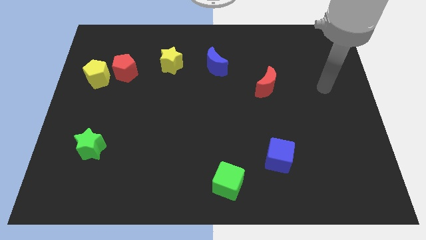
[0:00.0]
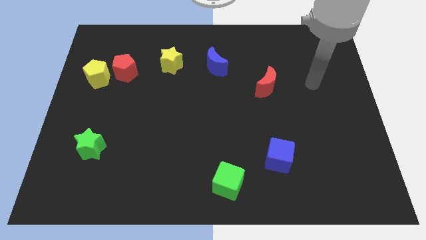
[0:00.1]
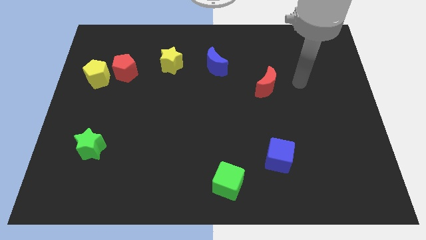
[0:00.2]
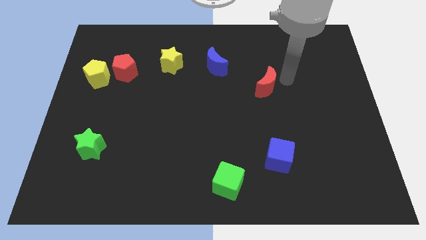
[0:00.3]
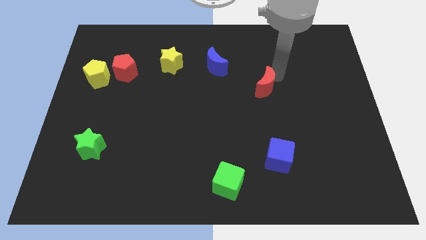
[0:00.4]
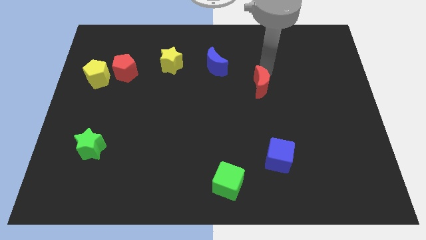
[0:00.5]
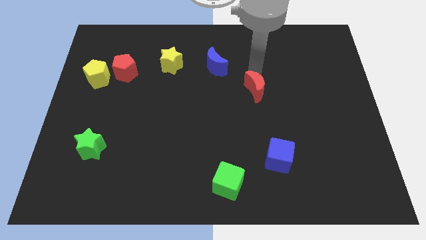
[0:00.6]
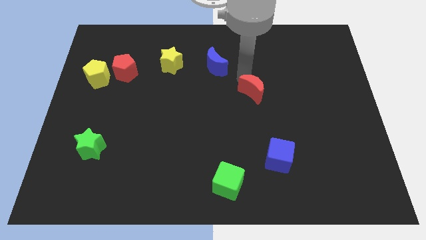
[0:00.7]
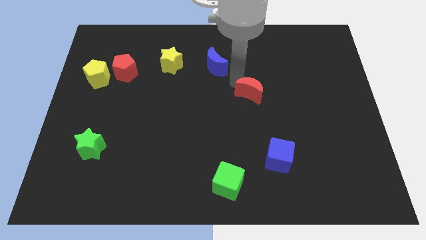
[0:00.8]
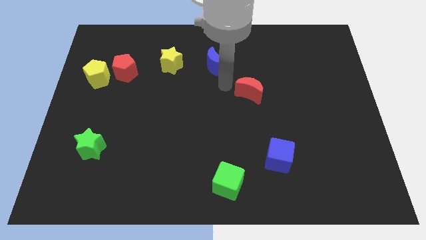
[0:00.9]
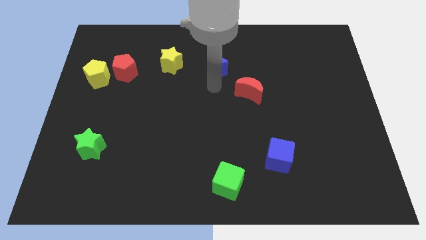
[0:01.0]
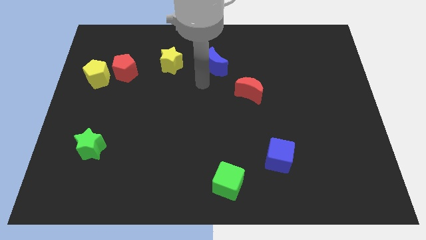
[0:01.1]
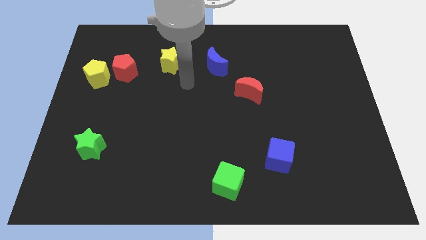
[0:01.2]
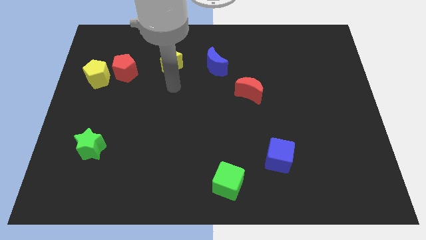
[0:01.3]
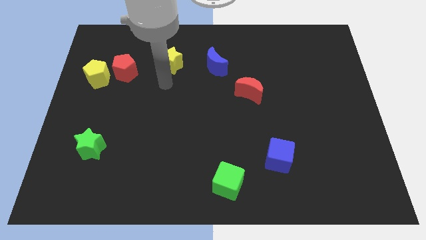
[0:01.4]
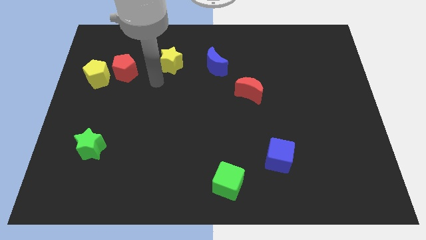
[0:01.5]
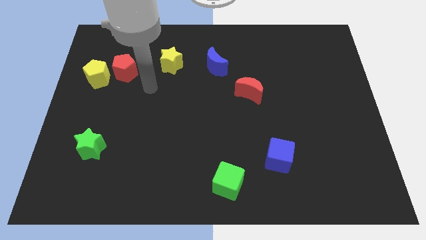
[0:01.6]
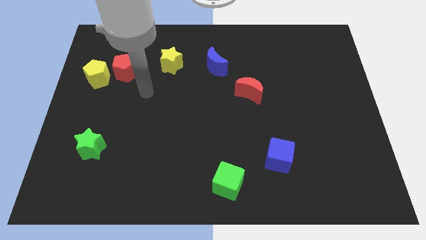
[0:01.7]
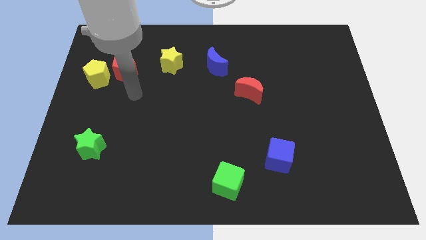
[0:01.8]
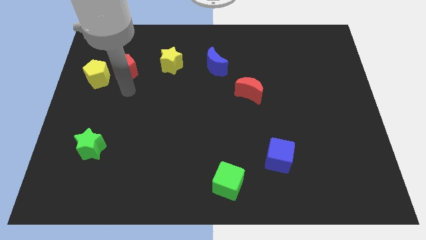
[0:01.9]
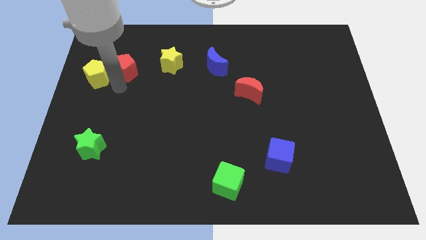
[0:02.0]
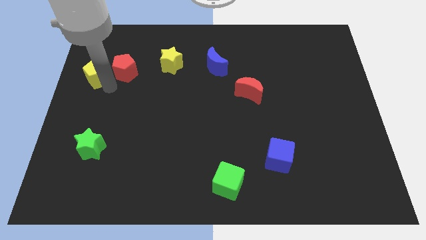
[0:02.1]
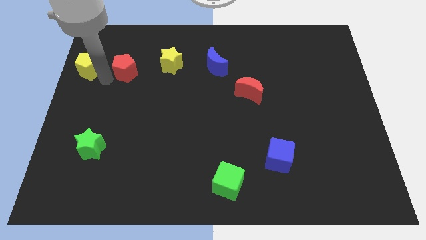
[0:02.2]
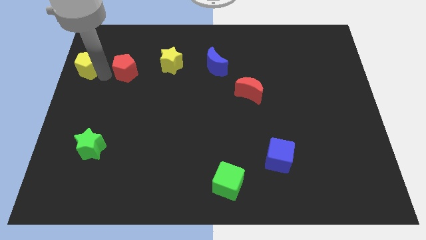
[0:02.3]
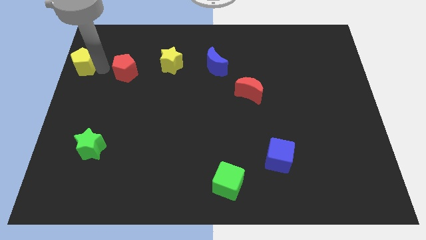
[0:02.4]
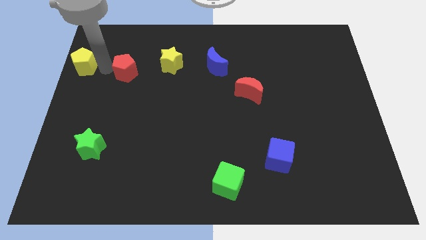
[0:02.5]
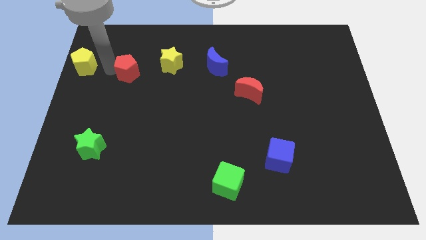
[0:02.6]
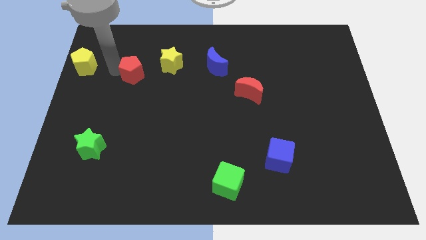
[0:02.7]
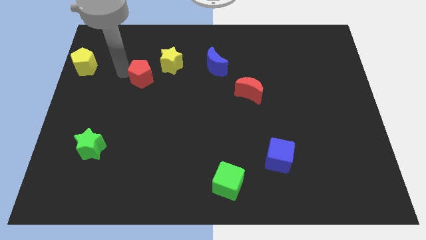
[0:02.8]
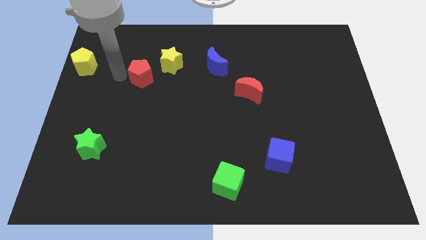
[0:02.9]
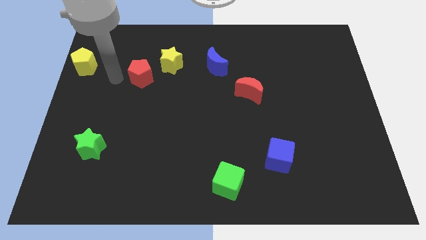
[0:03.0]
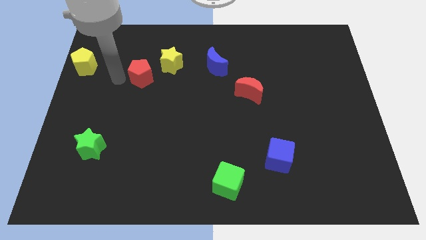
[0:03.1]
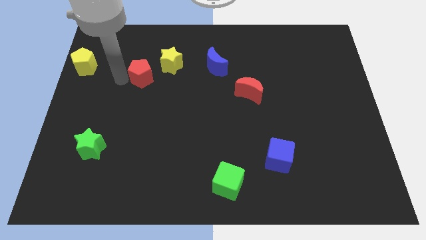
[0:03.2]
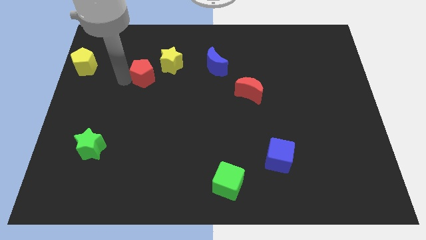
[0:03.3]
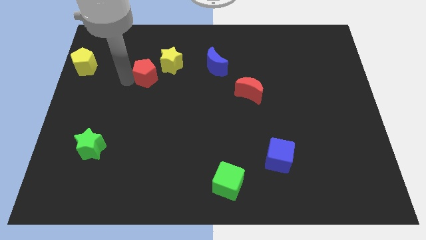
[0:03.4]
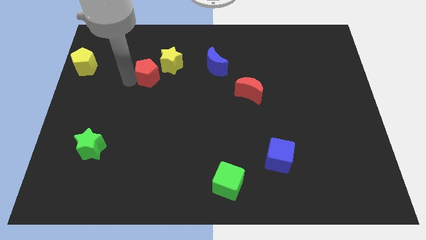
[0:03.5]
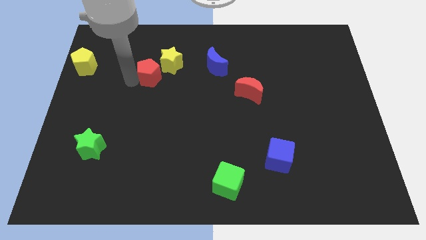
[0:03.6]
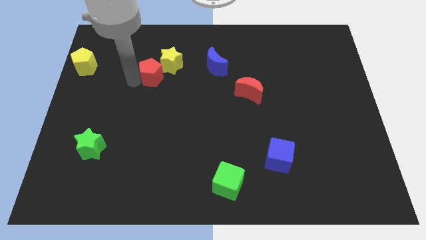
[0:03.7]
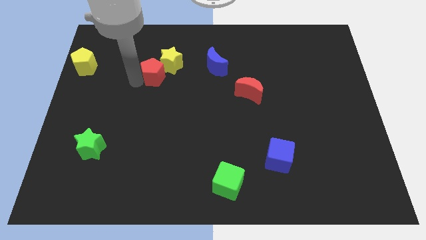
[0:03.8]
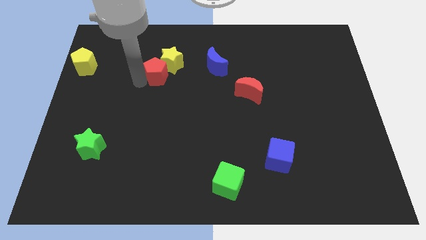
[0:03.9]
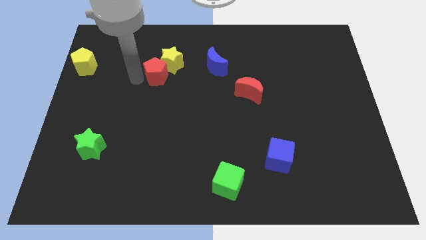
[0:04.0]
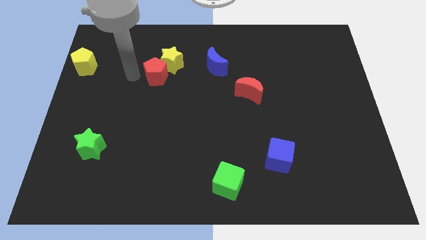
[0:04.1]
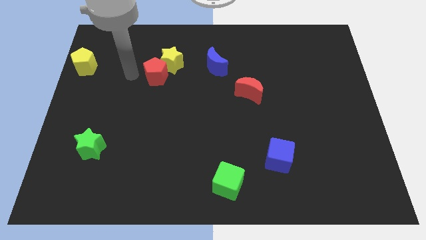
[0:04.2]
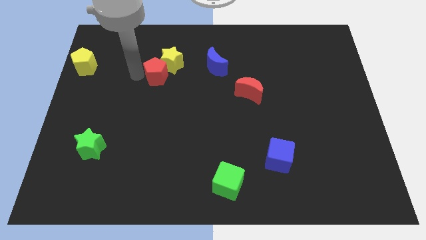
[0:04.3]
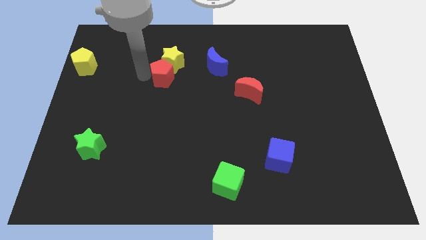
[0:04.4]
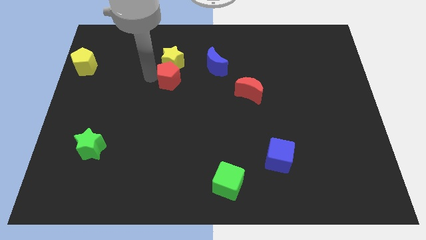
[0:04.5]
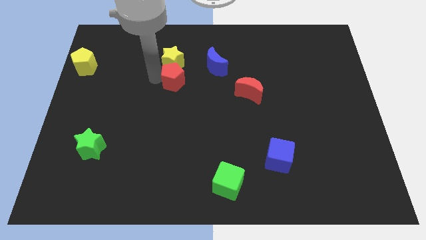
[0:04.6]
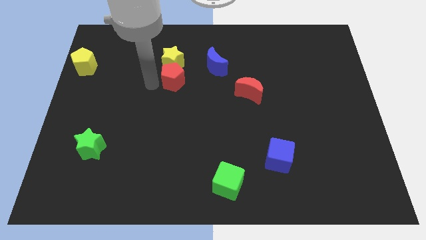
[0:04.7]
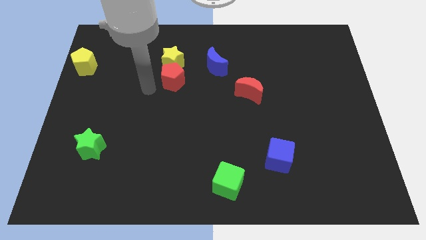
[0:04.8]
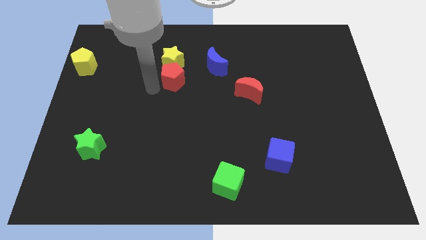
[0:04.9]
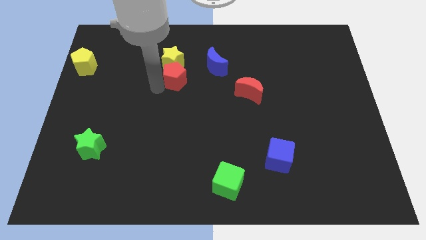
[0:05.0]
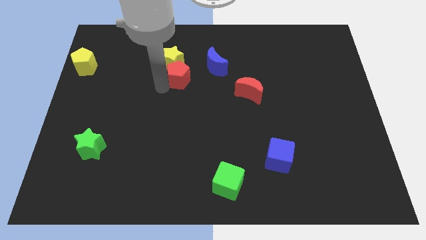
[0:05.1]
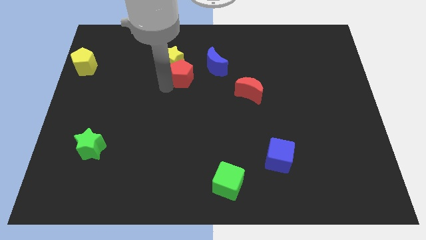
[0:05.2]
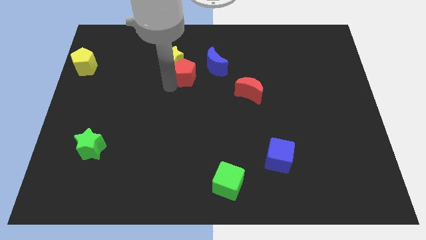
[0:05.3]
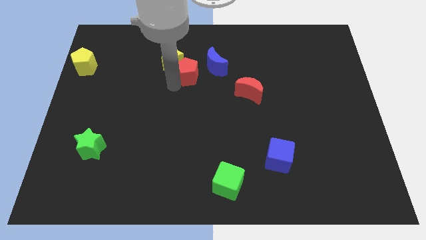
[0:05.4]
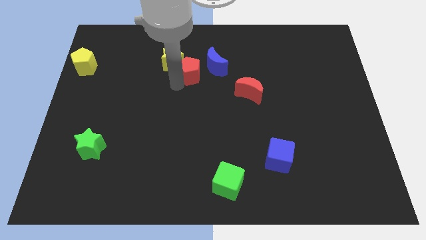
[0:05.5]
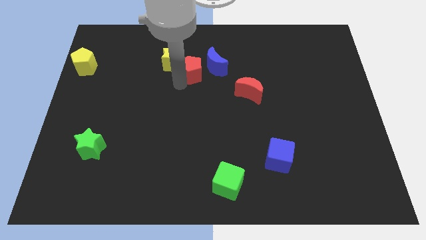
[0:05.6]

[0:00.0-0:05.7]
put the red pentagon next to the blue moon

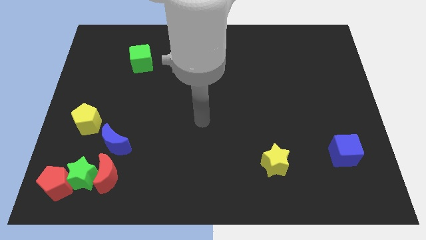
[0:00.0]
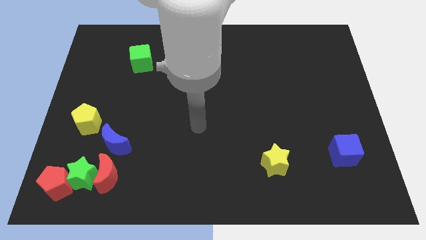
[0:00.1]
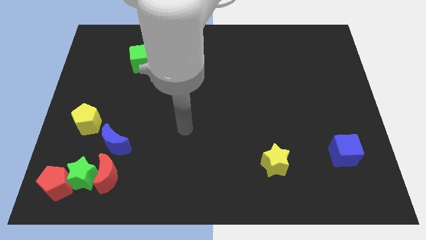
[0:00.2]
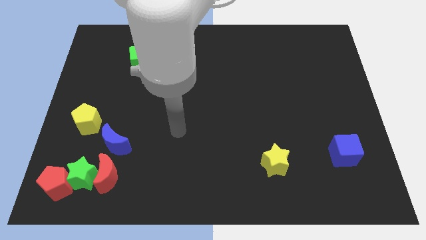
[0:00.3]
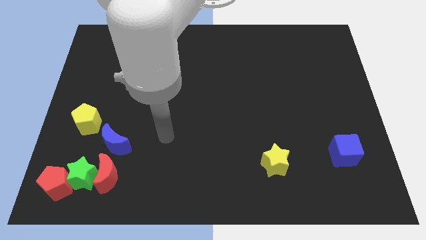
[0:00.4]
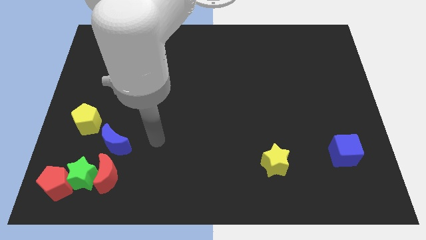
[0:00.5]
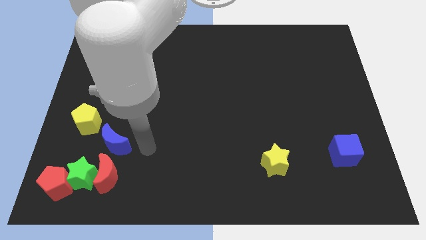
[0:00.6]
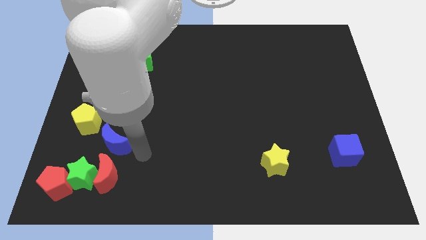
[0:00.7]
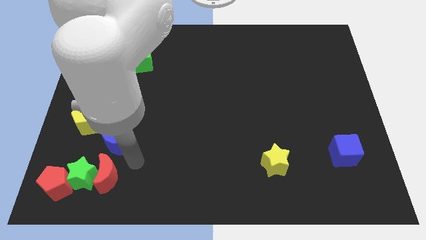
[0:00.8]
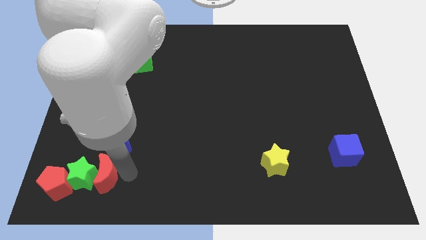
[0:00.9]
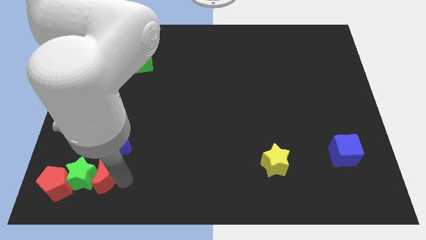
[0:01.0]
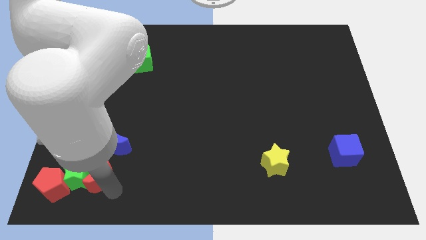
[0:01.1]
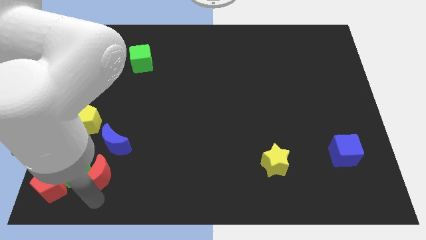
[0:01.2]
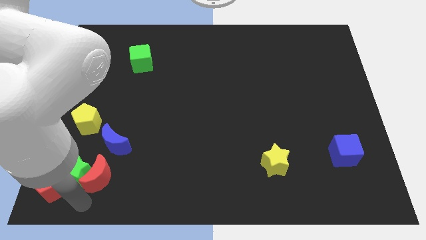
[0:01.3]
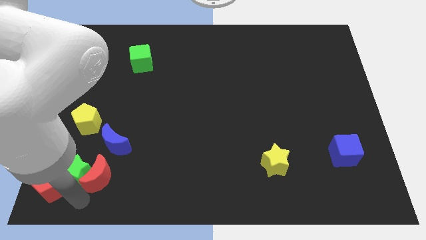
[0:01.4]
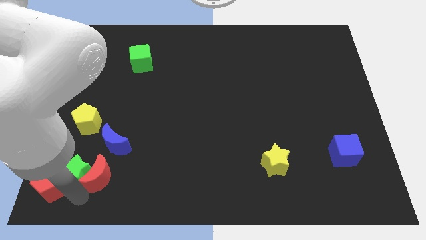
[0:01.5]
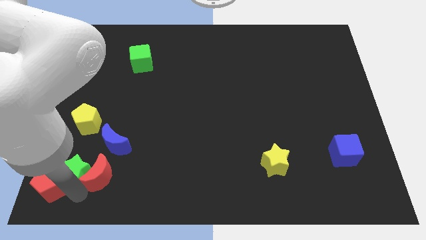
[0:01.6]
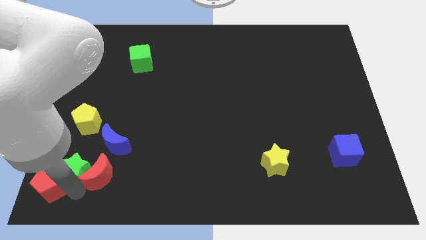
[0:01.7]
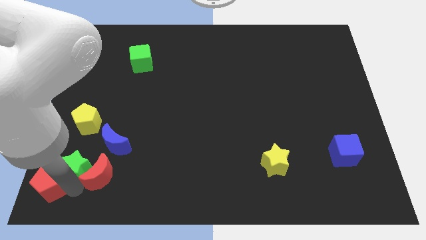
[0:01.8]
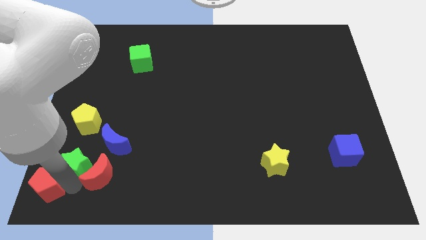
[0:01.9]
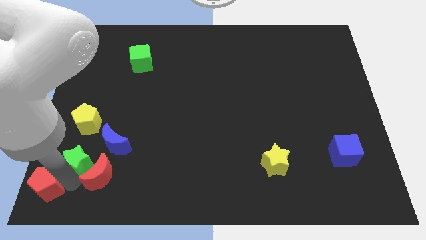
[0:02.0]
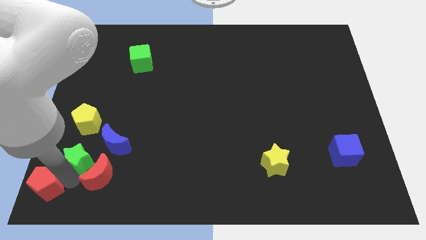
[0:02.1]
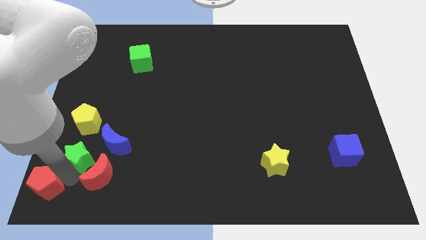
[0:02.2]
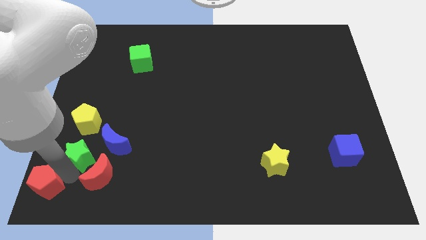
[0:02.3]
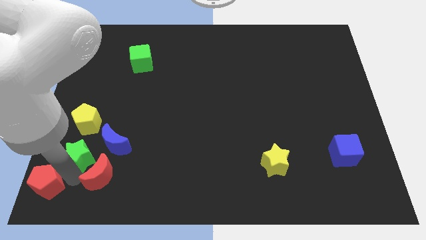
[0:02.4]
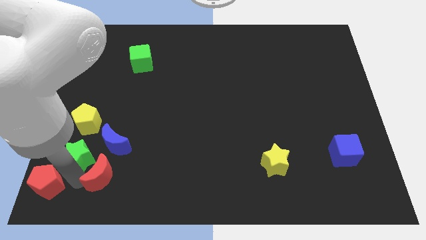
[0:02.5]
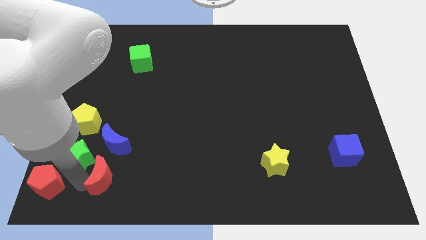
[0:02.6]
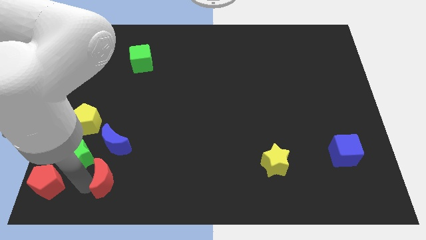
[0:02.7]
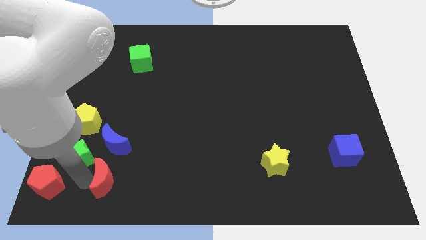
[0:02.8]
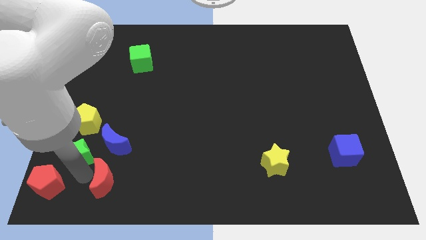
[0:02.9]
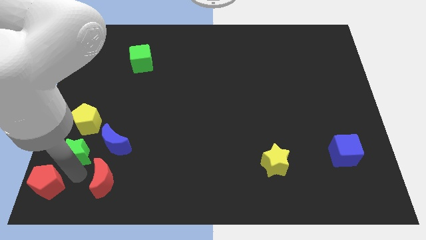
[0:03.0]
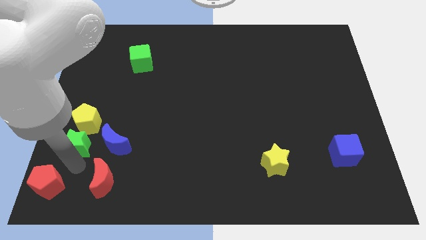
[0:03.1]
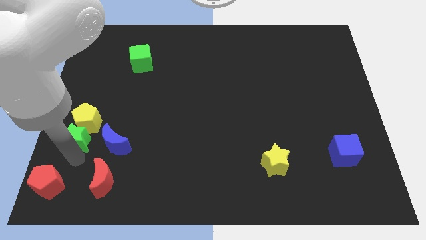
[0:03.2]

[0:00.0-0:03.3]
slide the green star to the yellow pentagon
